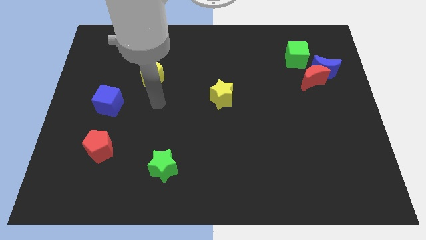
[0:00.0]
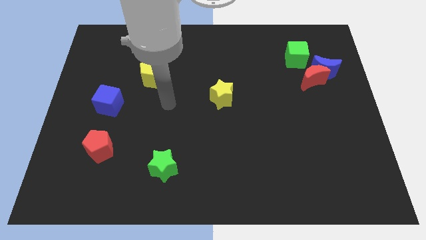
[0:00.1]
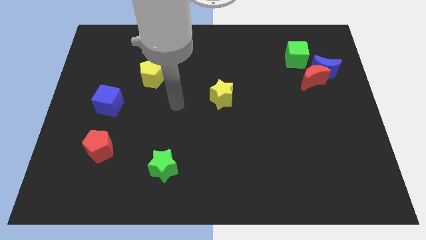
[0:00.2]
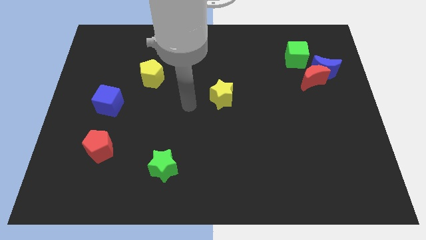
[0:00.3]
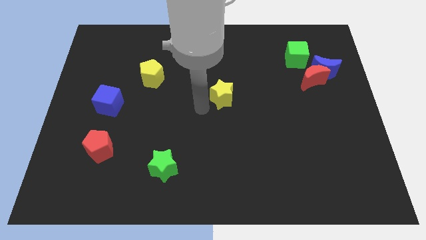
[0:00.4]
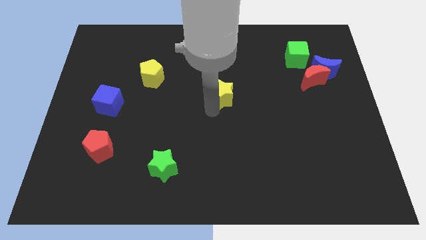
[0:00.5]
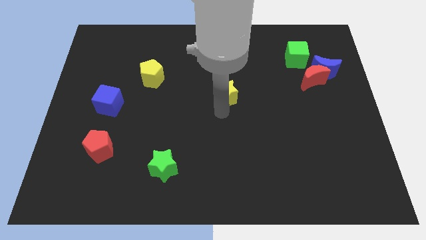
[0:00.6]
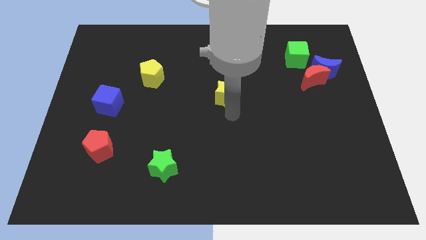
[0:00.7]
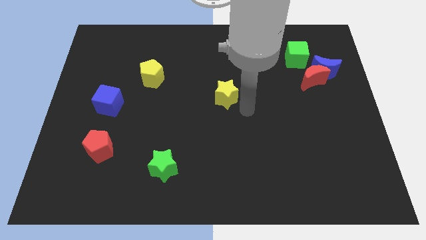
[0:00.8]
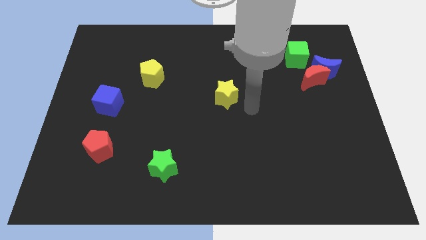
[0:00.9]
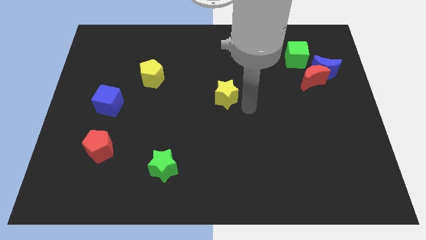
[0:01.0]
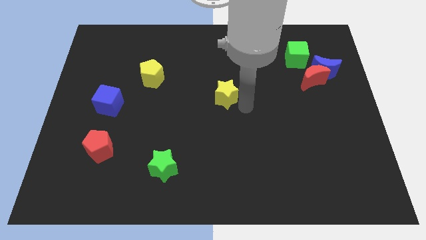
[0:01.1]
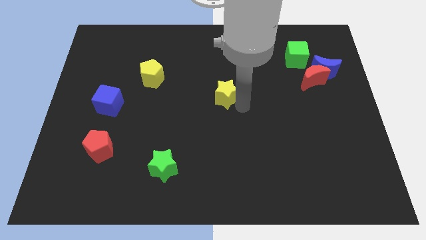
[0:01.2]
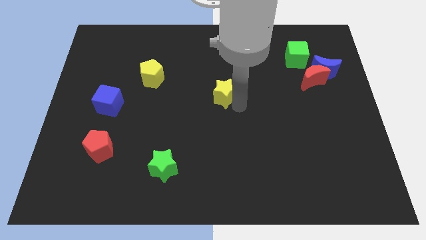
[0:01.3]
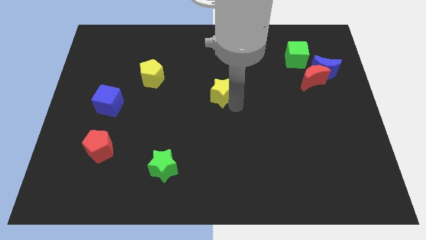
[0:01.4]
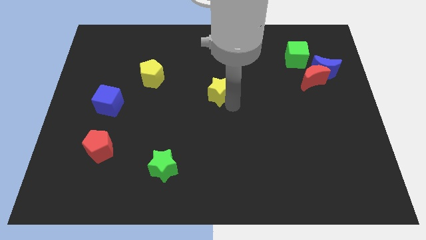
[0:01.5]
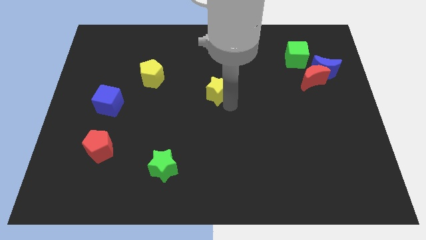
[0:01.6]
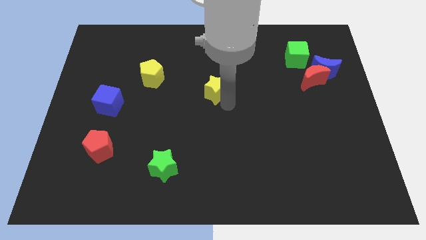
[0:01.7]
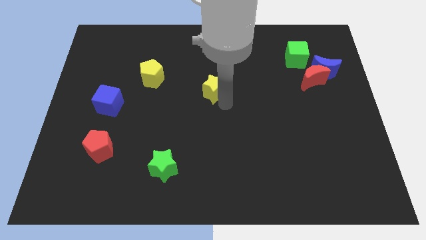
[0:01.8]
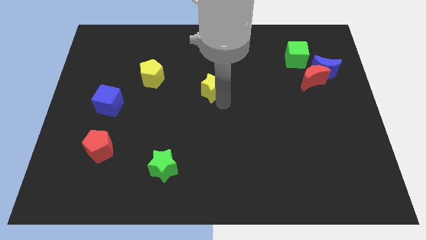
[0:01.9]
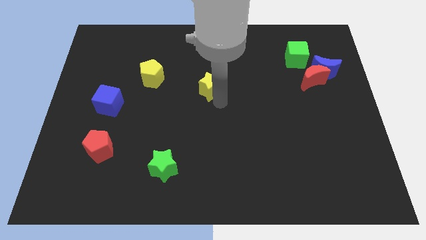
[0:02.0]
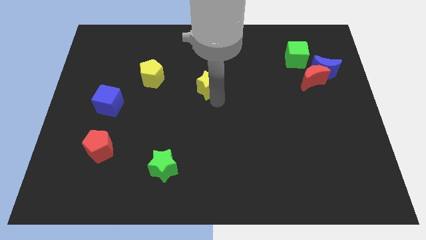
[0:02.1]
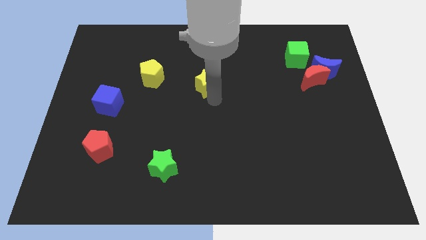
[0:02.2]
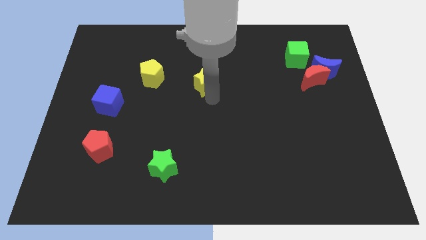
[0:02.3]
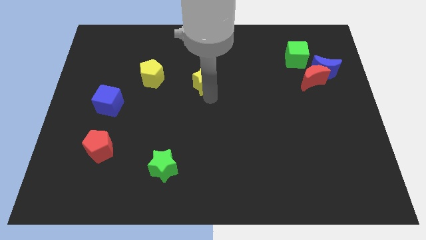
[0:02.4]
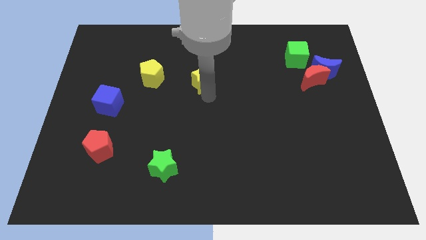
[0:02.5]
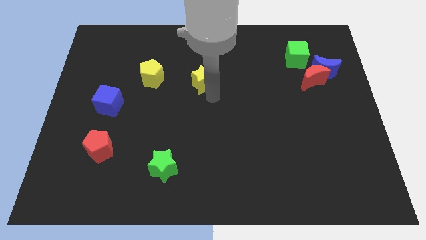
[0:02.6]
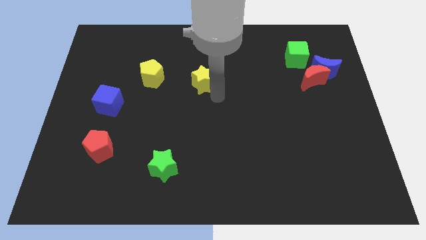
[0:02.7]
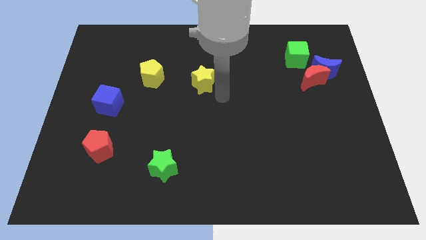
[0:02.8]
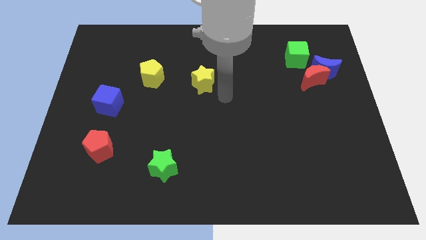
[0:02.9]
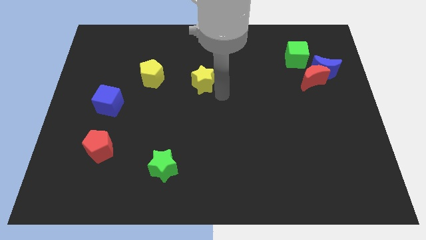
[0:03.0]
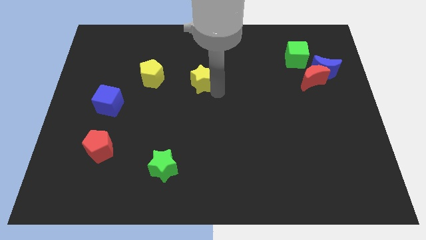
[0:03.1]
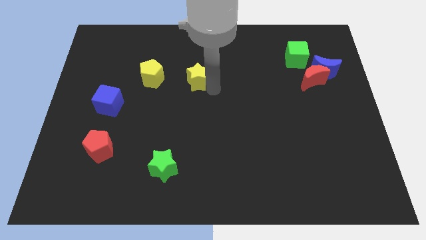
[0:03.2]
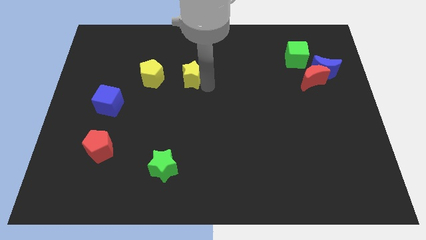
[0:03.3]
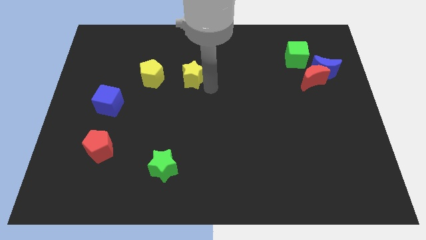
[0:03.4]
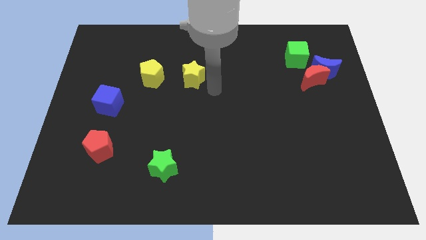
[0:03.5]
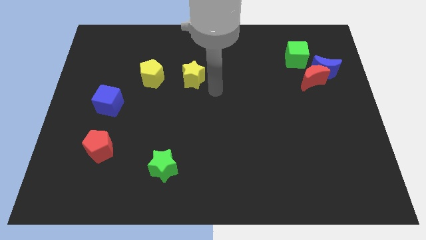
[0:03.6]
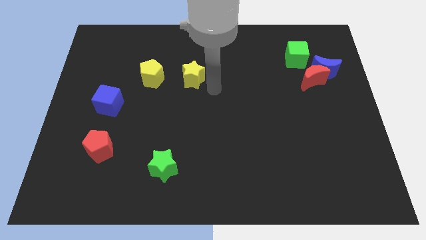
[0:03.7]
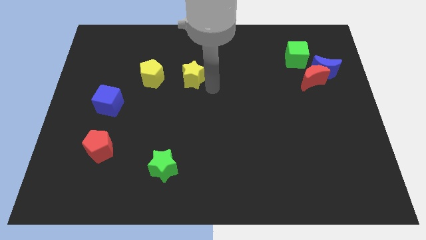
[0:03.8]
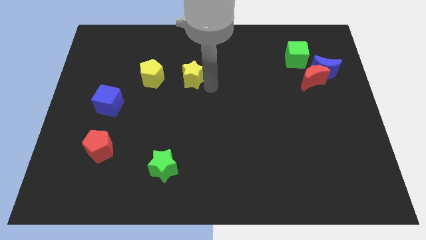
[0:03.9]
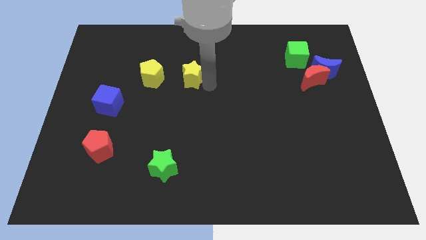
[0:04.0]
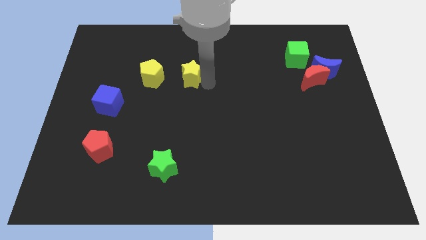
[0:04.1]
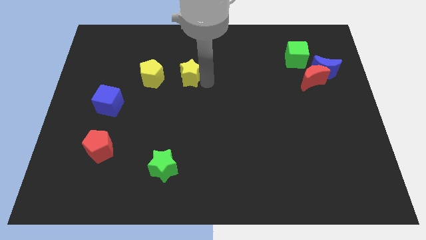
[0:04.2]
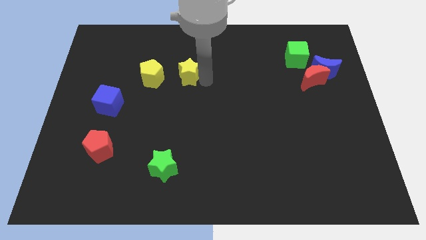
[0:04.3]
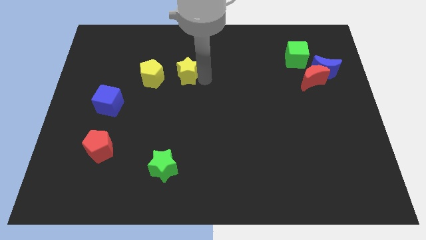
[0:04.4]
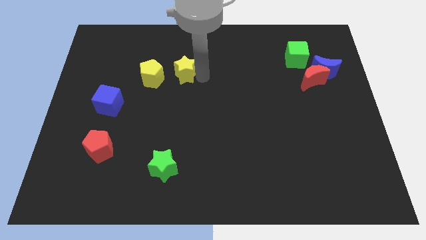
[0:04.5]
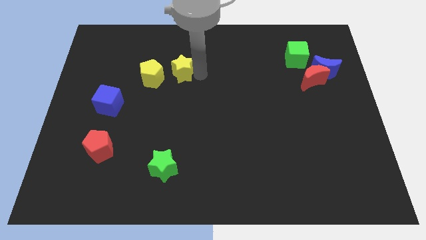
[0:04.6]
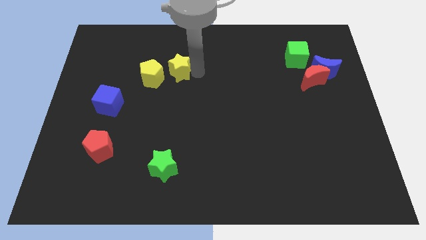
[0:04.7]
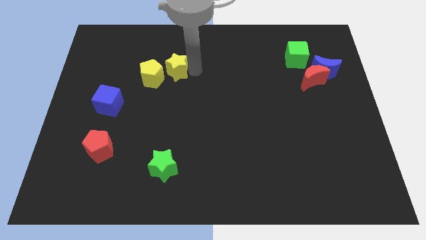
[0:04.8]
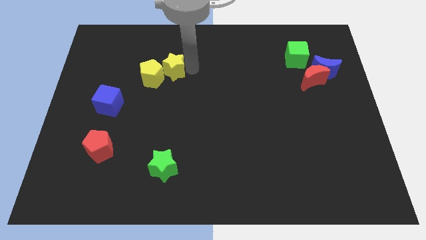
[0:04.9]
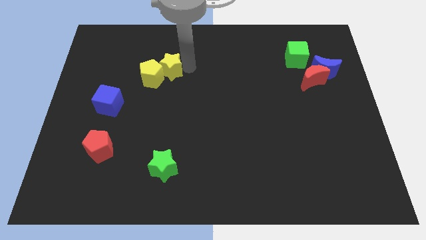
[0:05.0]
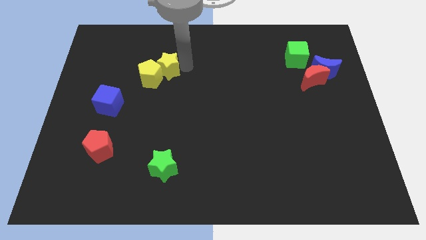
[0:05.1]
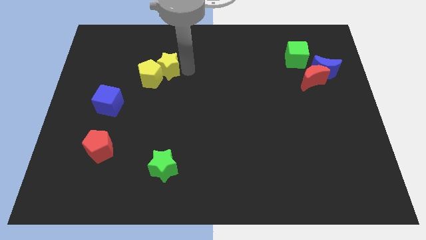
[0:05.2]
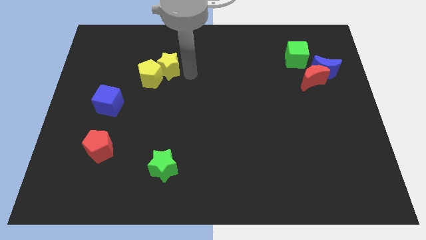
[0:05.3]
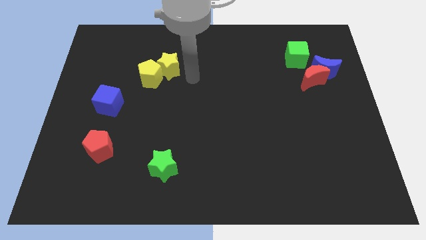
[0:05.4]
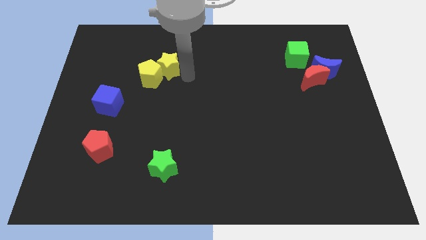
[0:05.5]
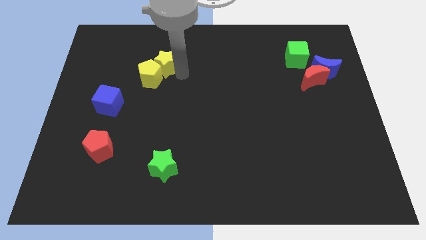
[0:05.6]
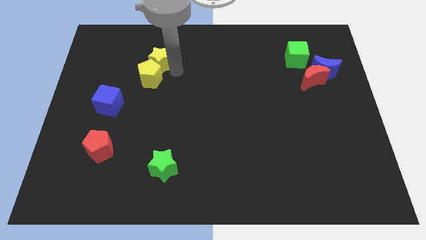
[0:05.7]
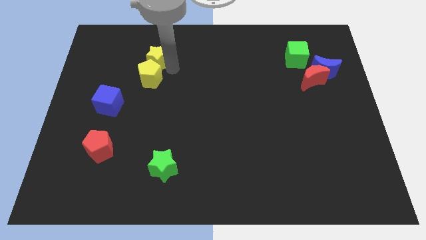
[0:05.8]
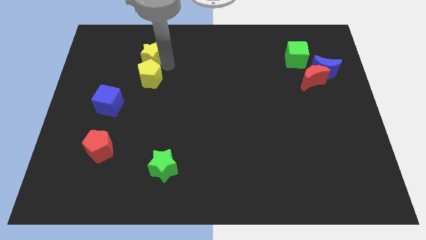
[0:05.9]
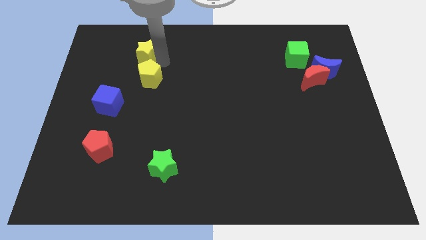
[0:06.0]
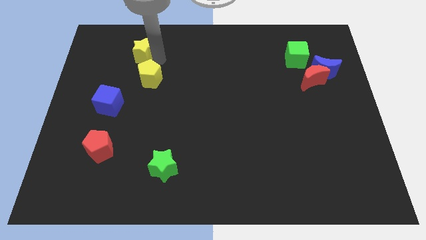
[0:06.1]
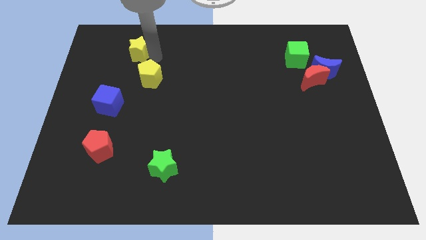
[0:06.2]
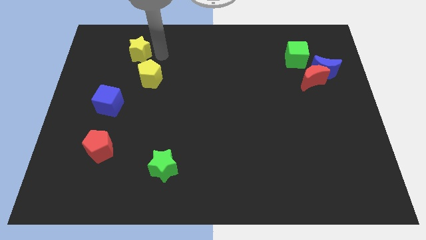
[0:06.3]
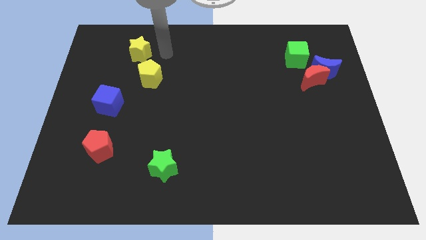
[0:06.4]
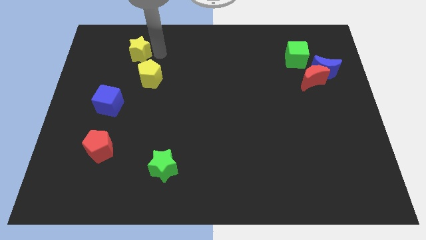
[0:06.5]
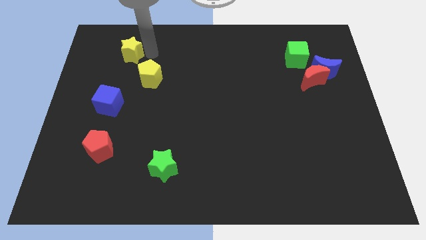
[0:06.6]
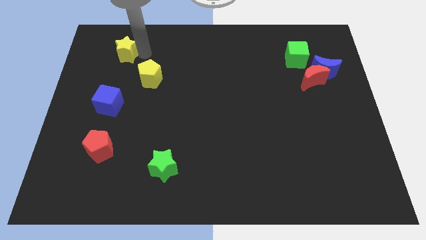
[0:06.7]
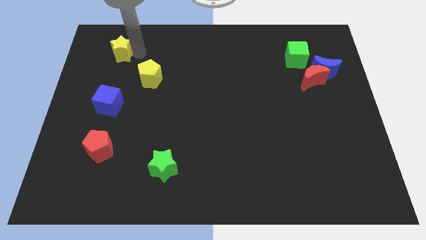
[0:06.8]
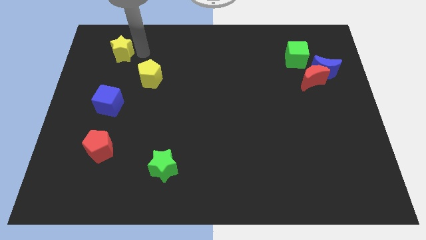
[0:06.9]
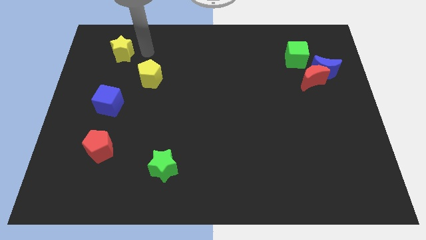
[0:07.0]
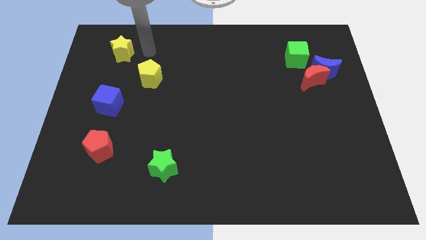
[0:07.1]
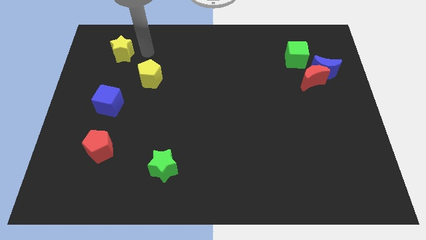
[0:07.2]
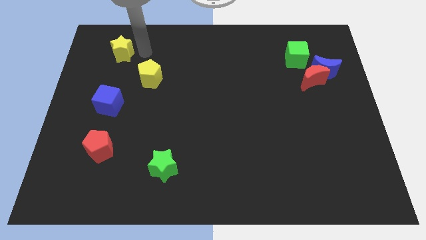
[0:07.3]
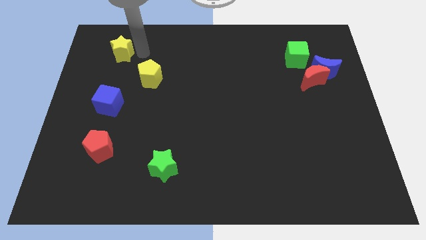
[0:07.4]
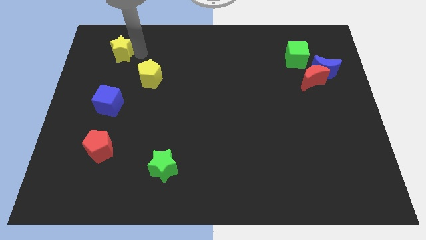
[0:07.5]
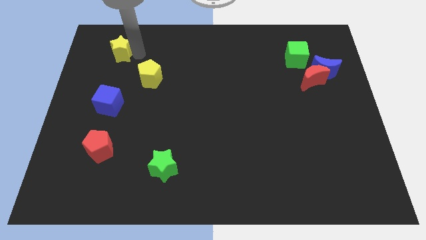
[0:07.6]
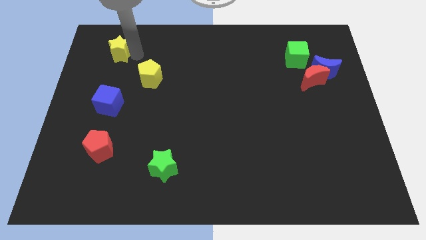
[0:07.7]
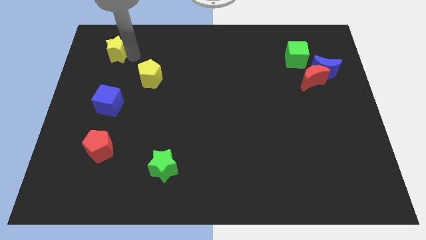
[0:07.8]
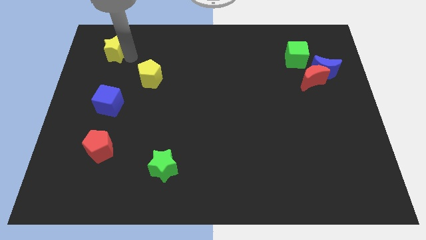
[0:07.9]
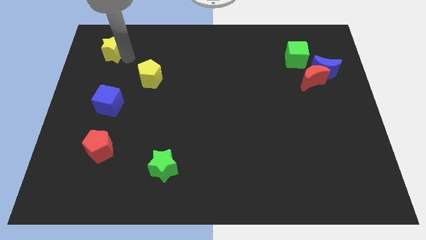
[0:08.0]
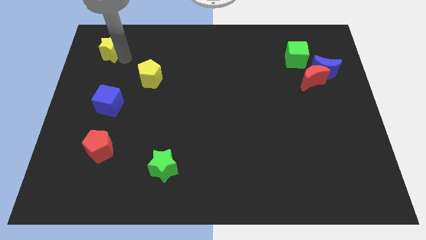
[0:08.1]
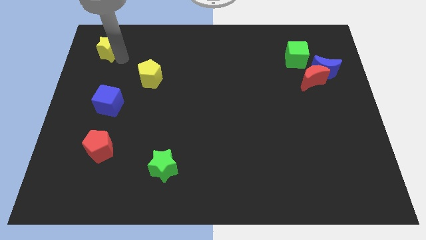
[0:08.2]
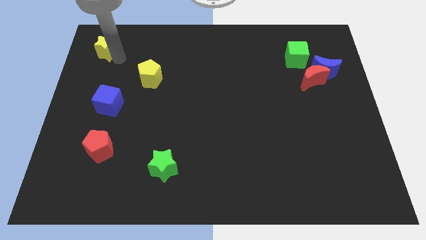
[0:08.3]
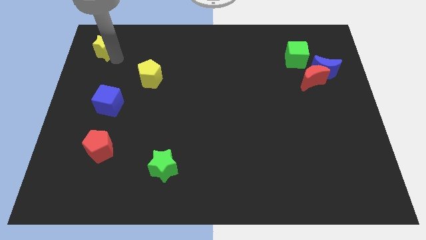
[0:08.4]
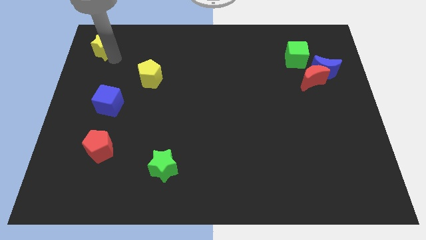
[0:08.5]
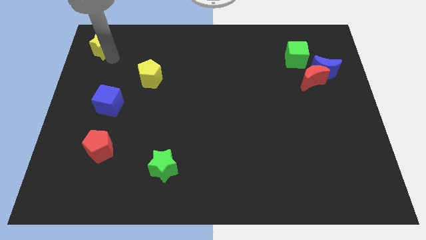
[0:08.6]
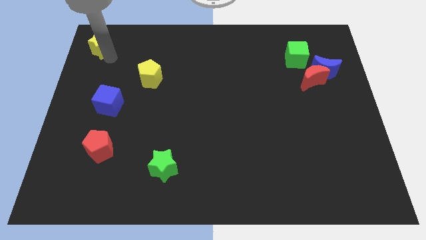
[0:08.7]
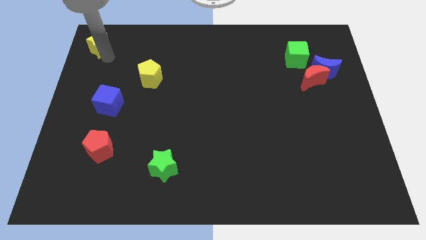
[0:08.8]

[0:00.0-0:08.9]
put the yellow star to the top left corner
